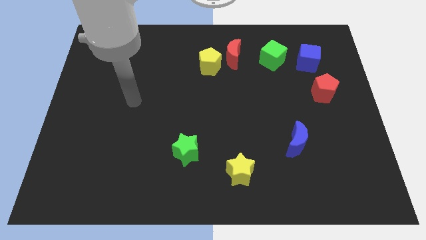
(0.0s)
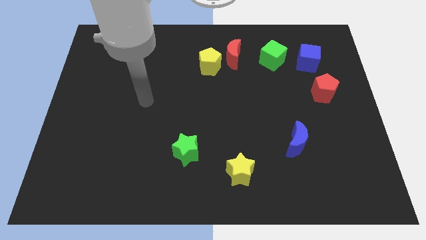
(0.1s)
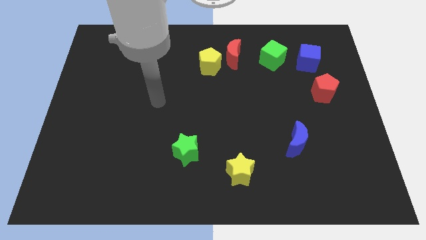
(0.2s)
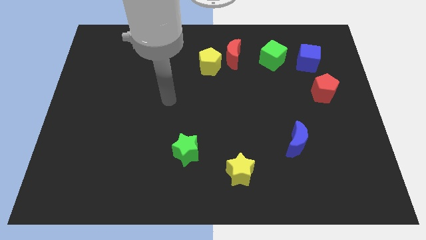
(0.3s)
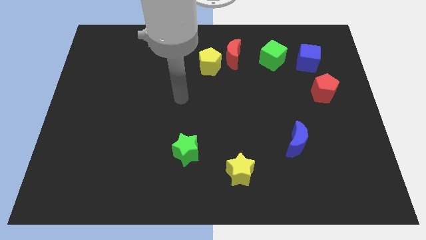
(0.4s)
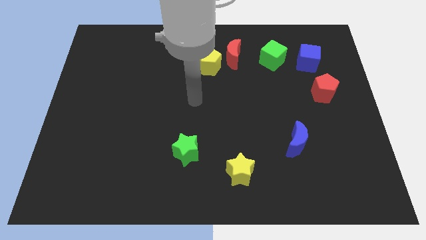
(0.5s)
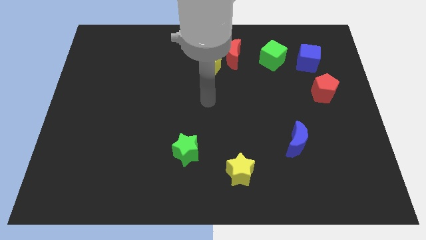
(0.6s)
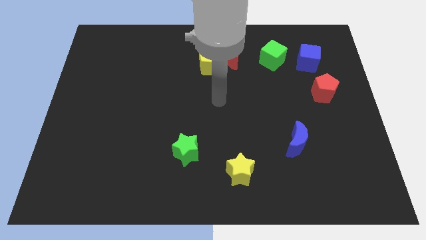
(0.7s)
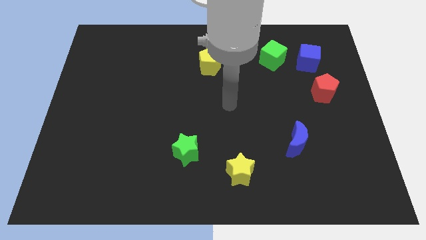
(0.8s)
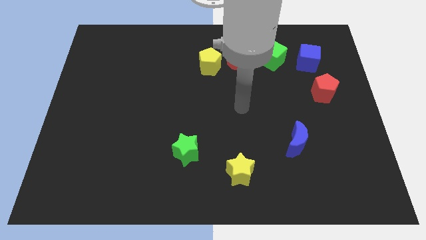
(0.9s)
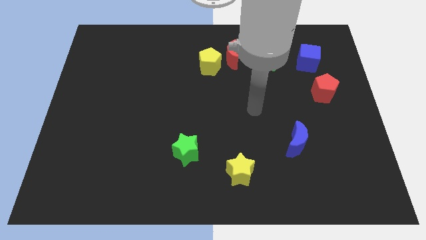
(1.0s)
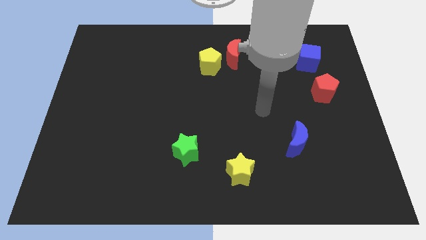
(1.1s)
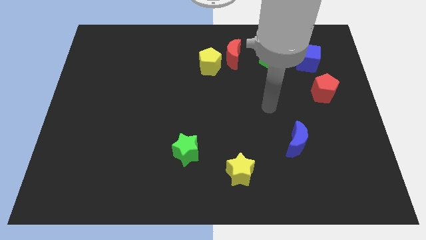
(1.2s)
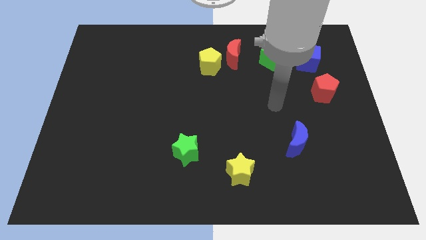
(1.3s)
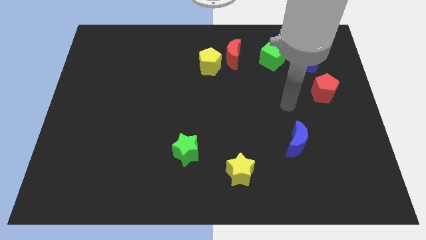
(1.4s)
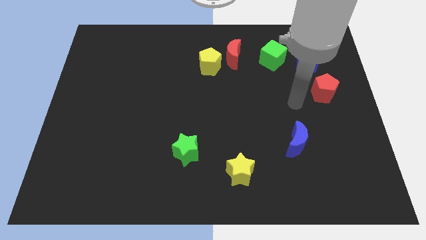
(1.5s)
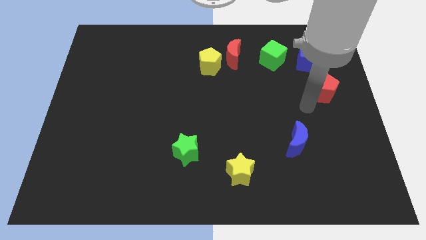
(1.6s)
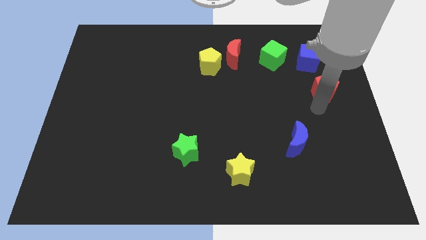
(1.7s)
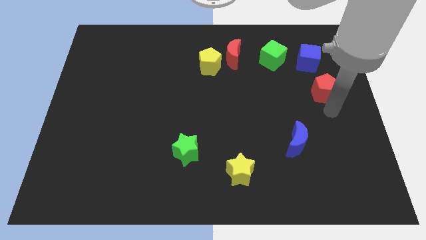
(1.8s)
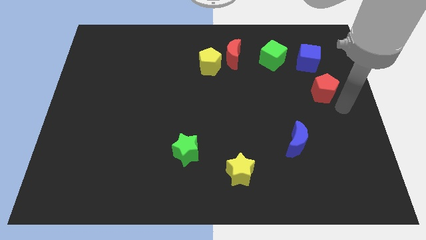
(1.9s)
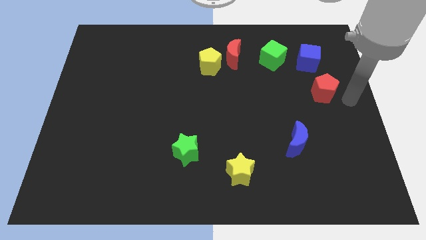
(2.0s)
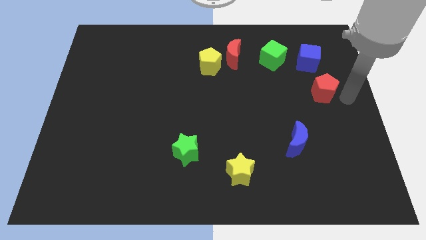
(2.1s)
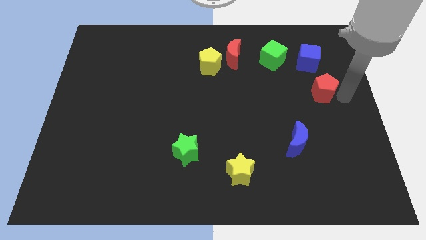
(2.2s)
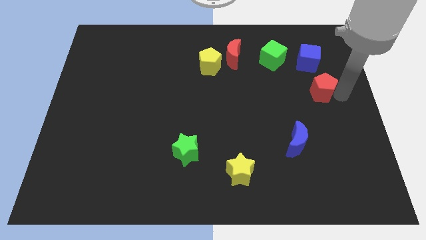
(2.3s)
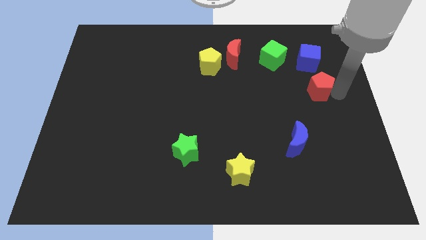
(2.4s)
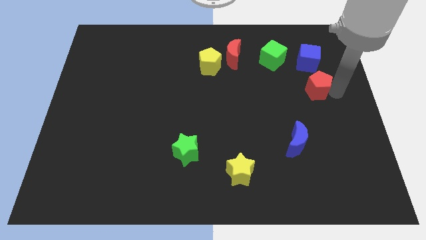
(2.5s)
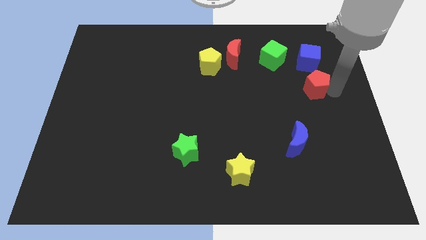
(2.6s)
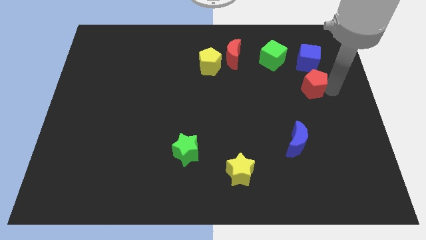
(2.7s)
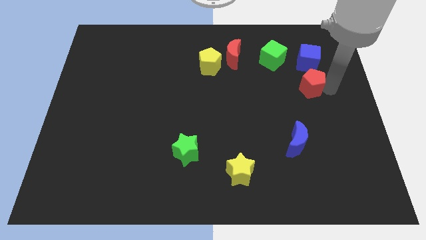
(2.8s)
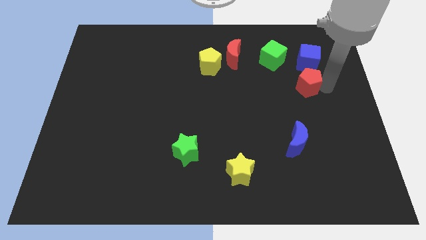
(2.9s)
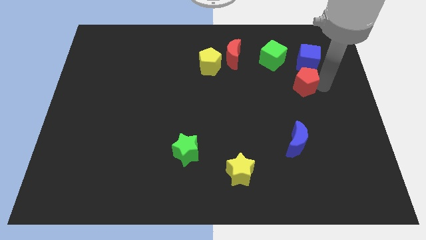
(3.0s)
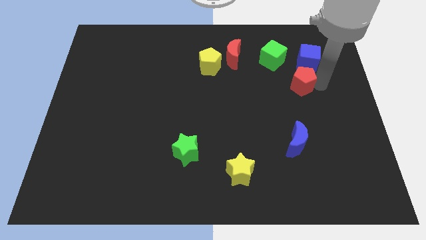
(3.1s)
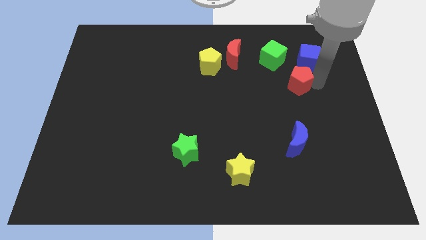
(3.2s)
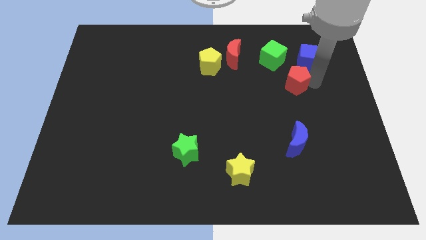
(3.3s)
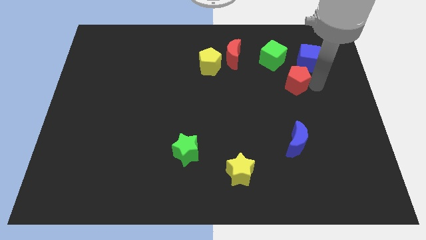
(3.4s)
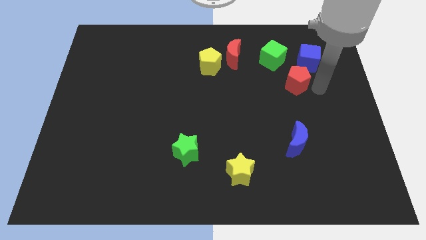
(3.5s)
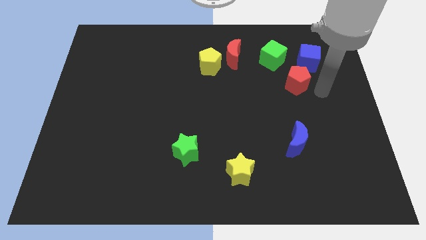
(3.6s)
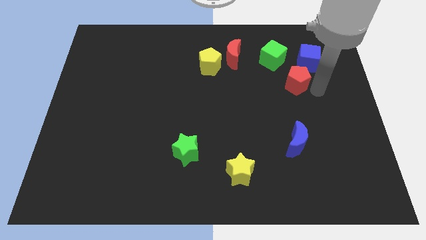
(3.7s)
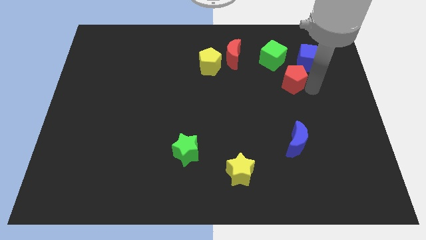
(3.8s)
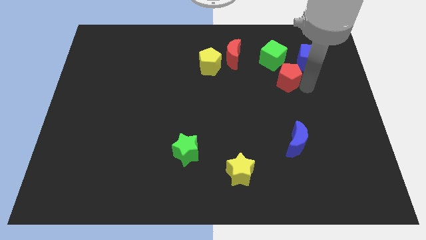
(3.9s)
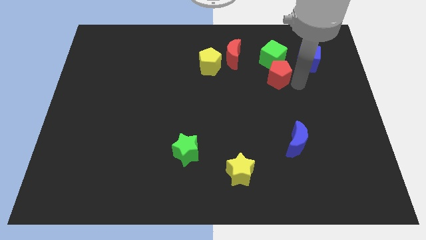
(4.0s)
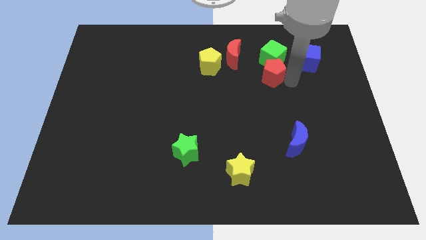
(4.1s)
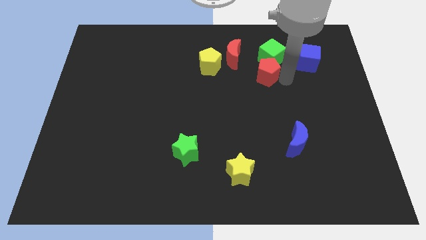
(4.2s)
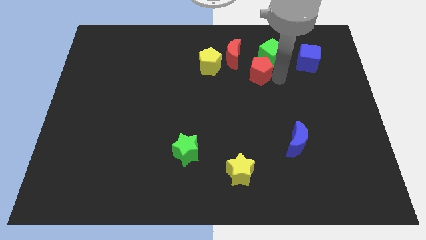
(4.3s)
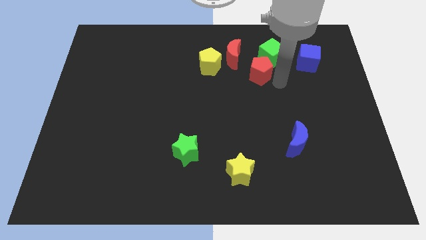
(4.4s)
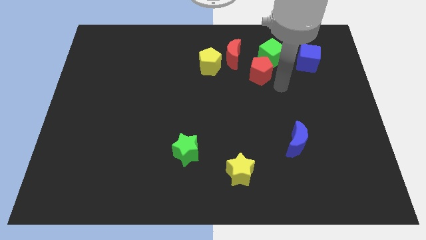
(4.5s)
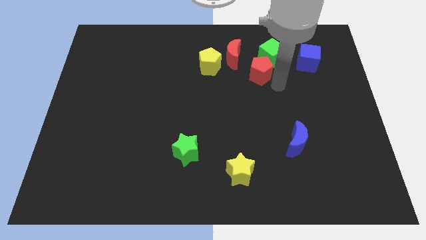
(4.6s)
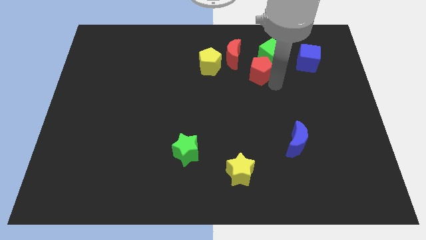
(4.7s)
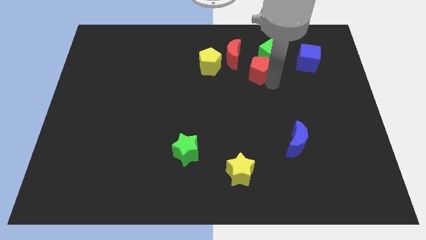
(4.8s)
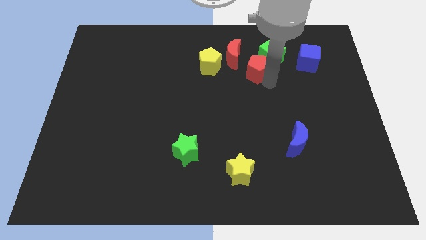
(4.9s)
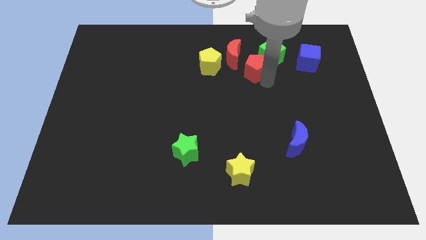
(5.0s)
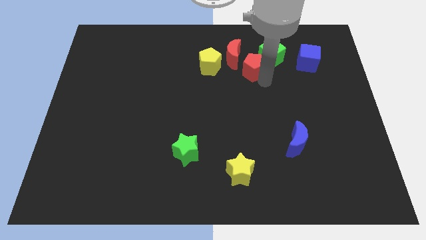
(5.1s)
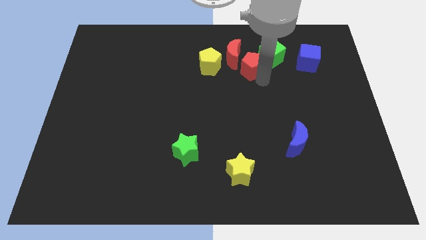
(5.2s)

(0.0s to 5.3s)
push the red pentagon to the red moon

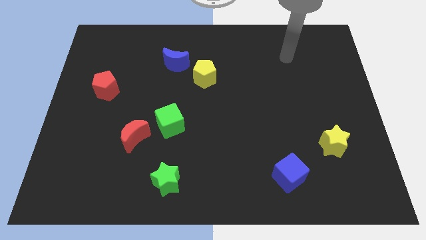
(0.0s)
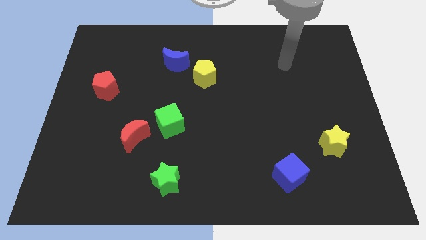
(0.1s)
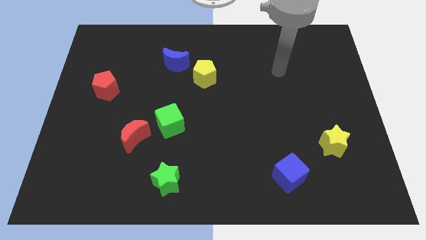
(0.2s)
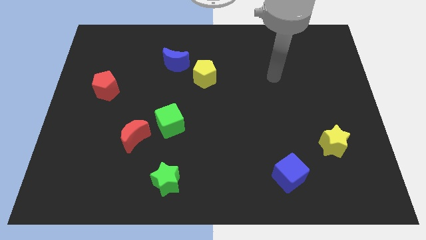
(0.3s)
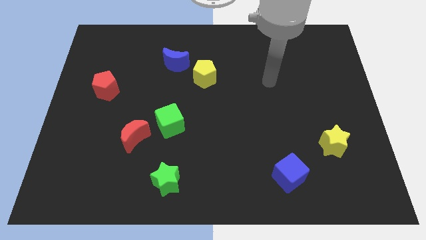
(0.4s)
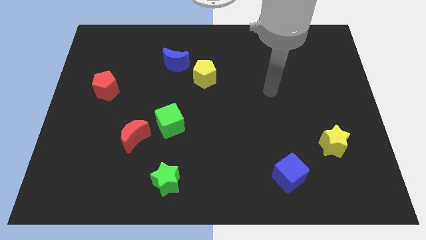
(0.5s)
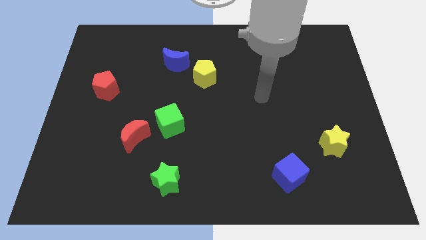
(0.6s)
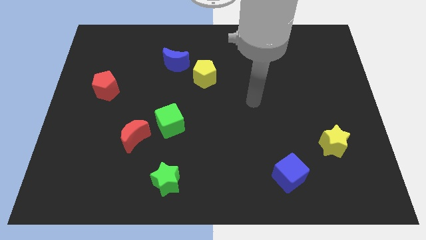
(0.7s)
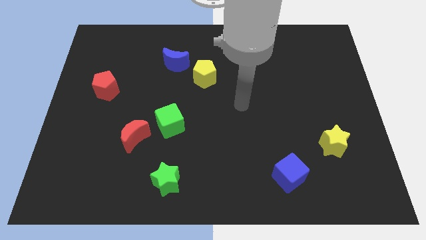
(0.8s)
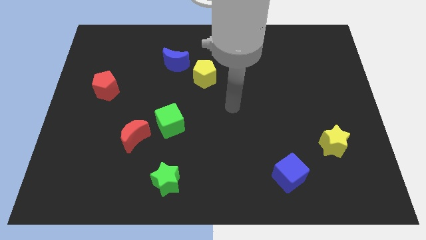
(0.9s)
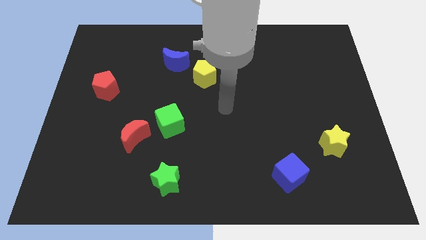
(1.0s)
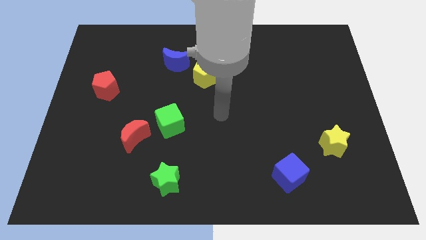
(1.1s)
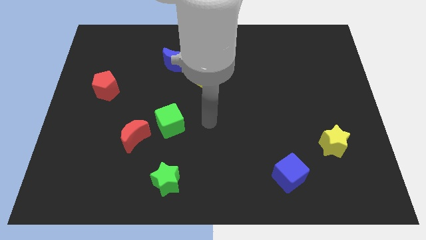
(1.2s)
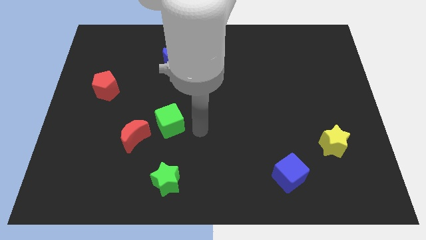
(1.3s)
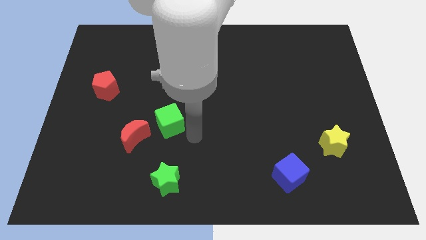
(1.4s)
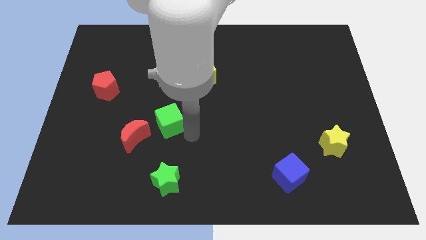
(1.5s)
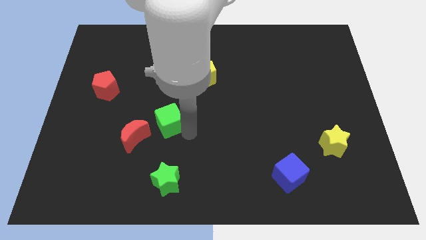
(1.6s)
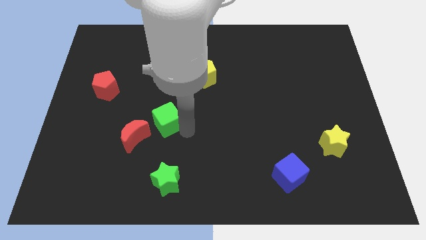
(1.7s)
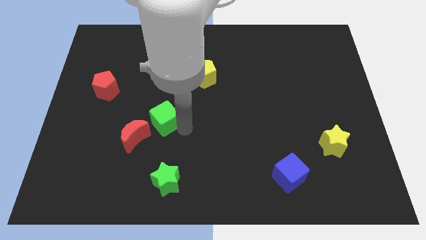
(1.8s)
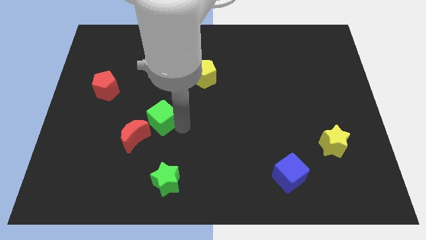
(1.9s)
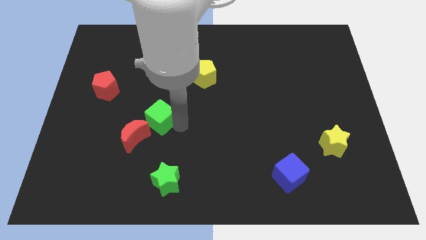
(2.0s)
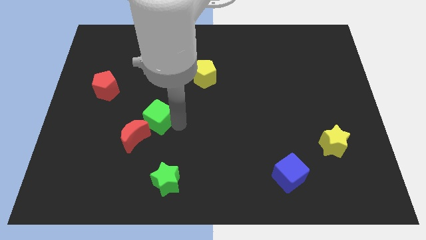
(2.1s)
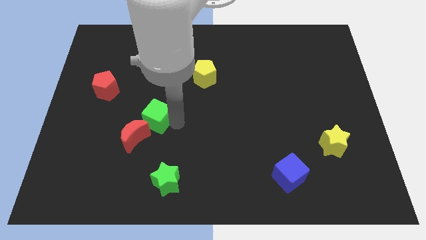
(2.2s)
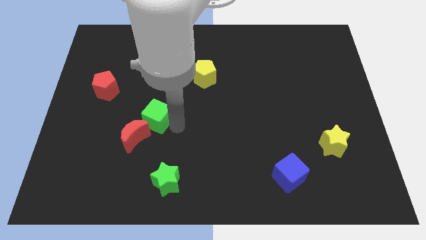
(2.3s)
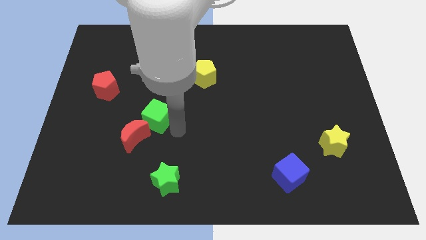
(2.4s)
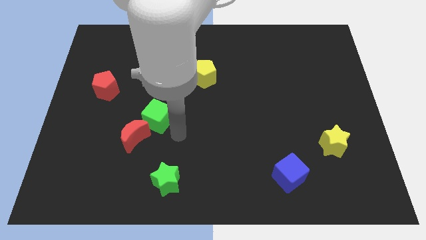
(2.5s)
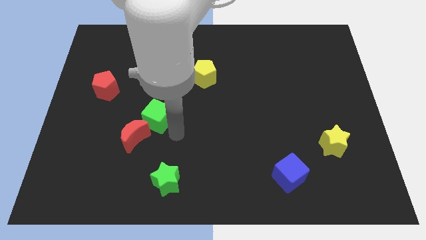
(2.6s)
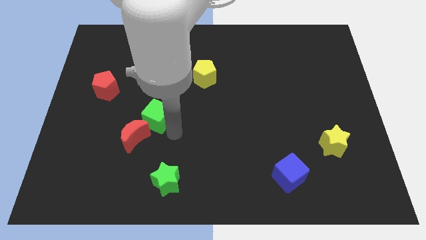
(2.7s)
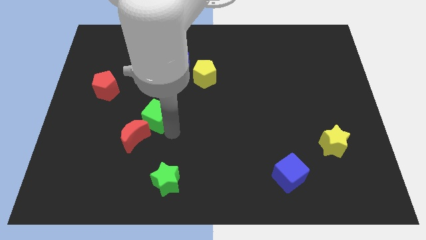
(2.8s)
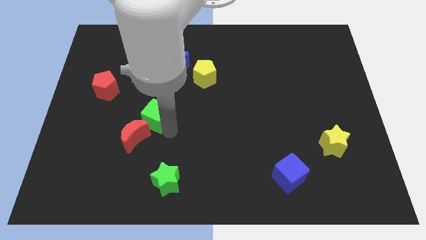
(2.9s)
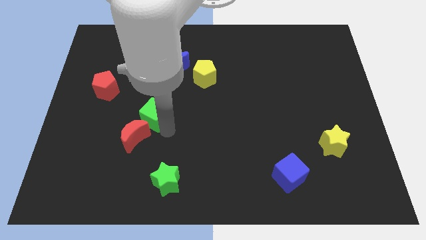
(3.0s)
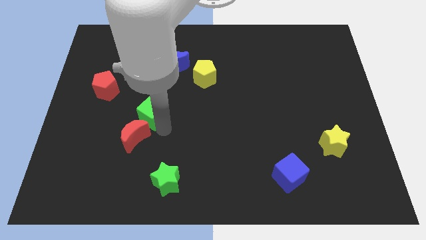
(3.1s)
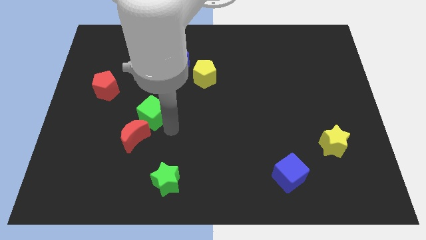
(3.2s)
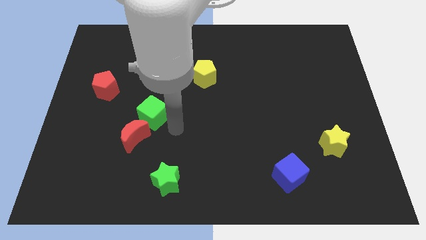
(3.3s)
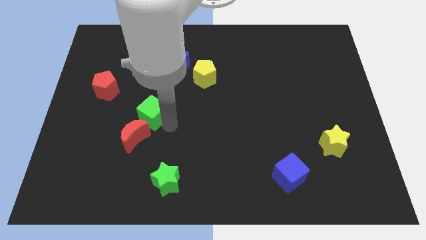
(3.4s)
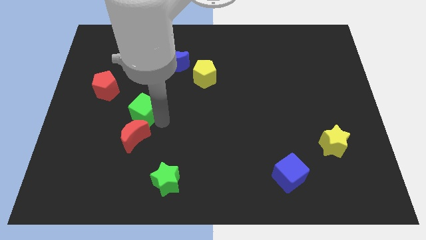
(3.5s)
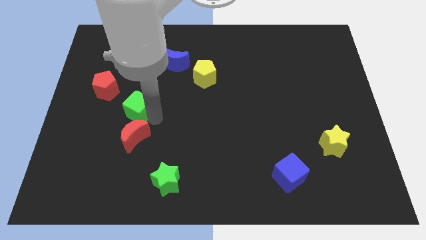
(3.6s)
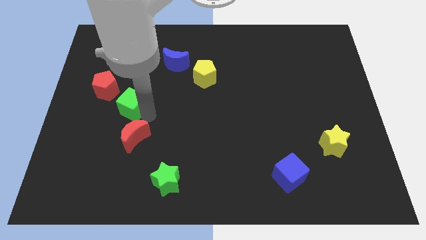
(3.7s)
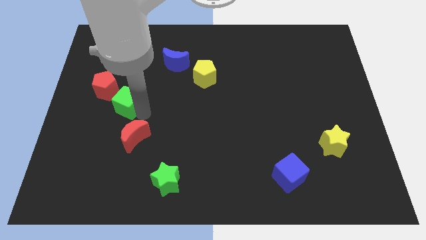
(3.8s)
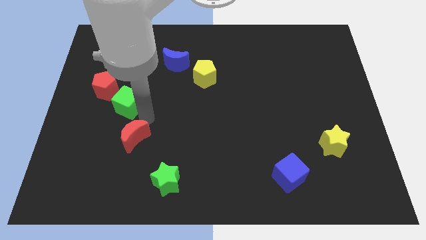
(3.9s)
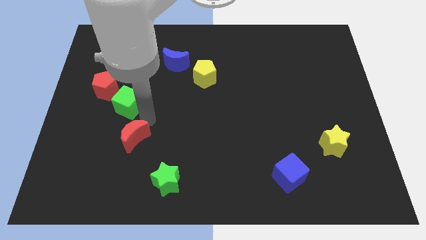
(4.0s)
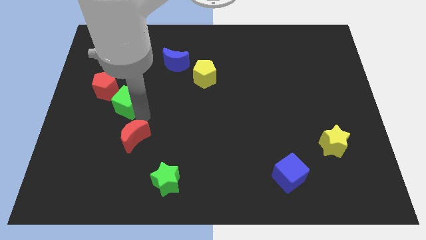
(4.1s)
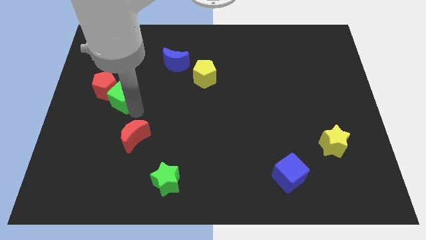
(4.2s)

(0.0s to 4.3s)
move the green cube close to the red pentagon
